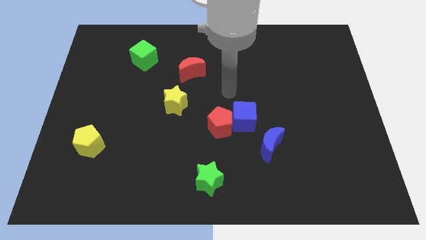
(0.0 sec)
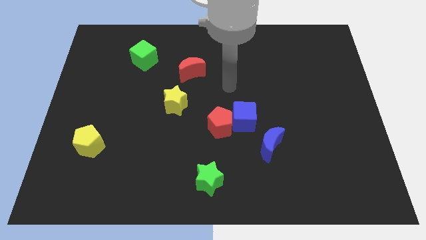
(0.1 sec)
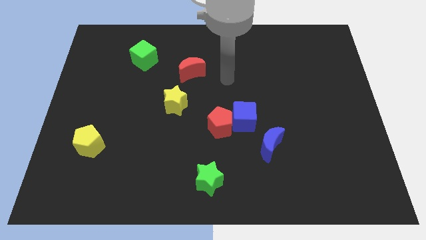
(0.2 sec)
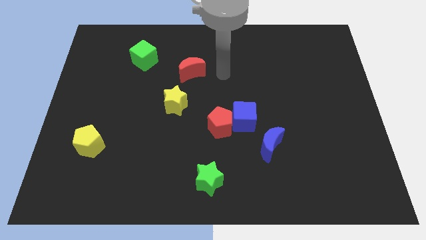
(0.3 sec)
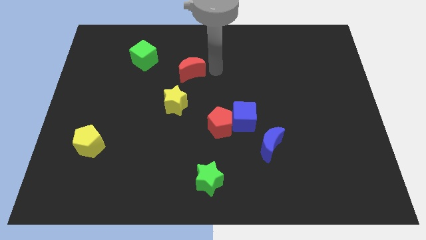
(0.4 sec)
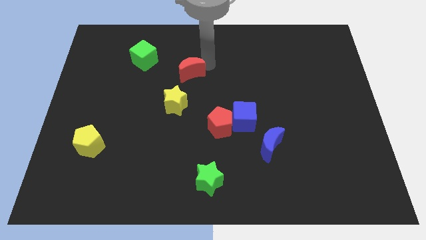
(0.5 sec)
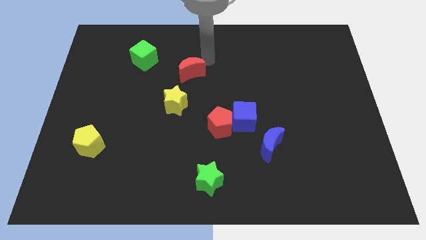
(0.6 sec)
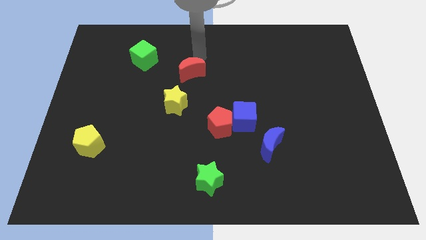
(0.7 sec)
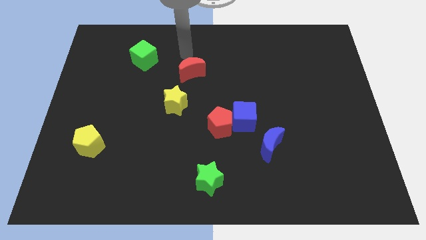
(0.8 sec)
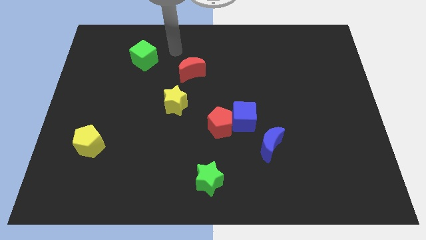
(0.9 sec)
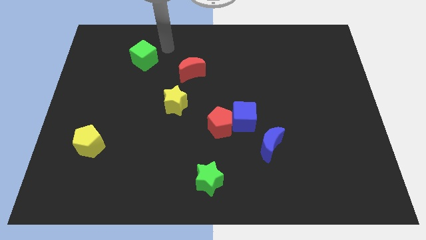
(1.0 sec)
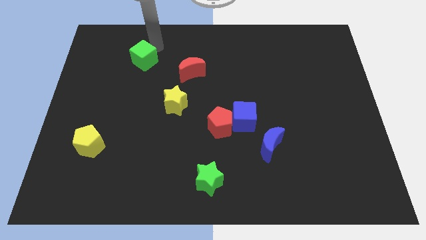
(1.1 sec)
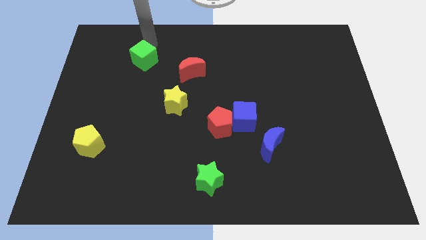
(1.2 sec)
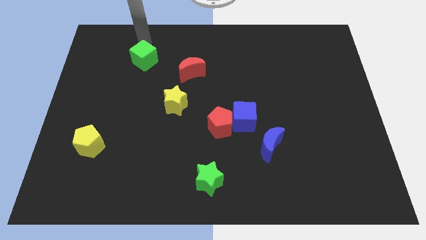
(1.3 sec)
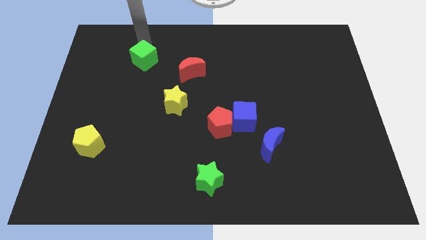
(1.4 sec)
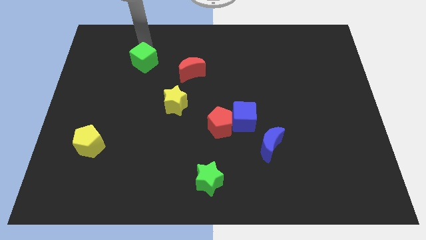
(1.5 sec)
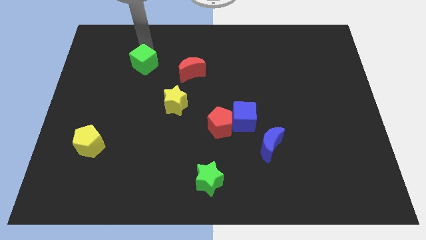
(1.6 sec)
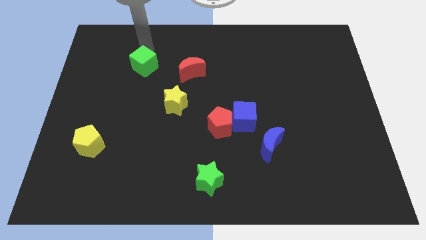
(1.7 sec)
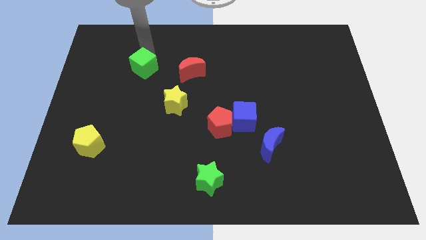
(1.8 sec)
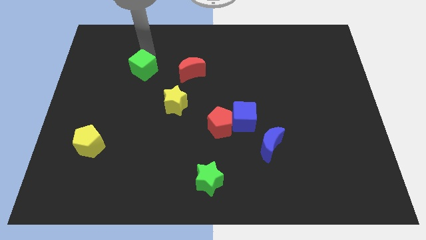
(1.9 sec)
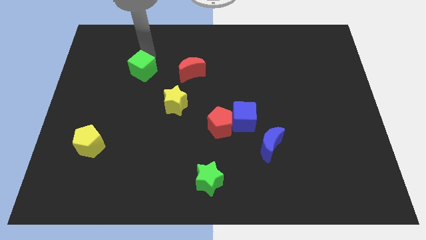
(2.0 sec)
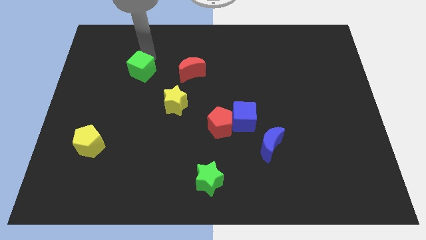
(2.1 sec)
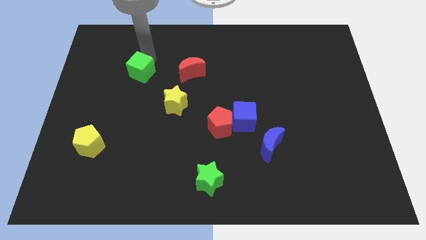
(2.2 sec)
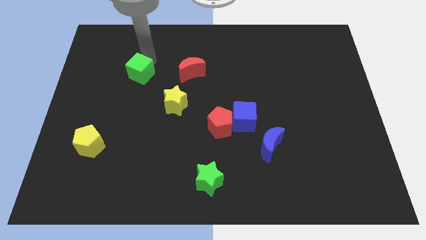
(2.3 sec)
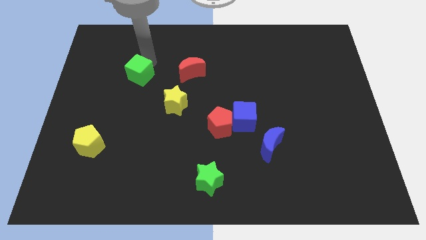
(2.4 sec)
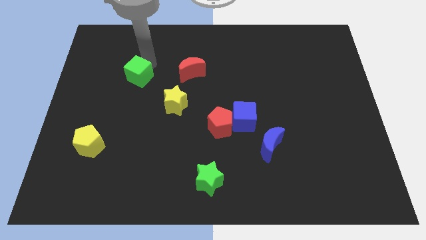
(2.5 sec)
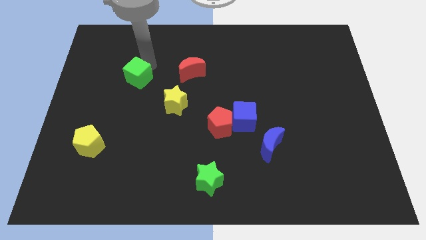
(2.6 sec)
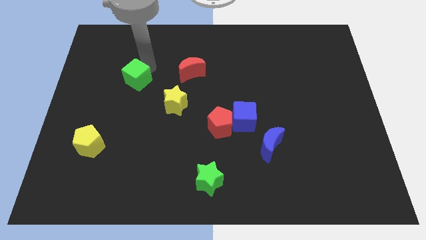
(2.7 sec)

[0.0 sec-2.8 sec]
slide the green cube downwards slightly

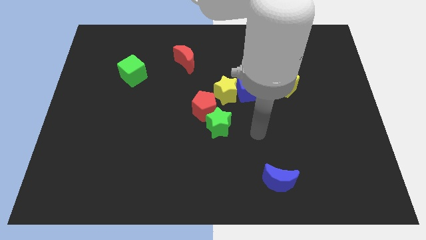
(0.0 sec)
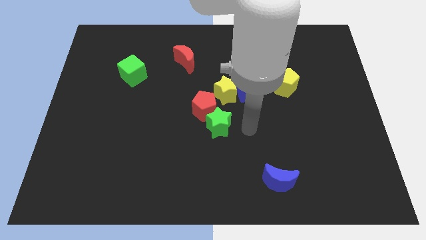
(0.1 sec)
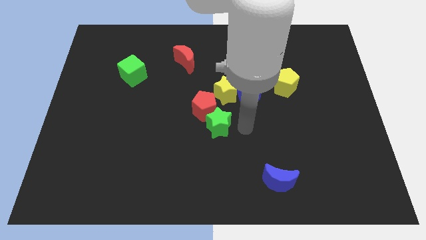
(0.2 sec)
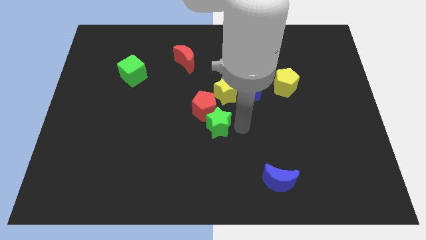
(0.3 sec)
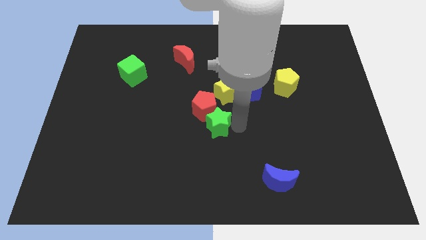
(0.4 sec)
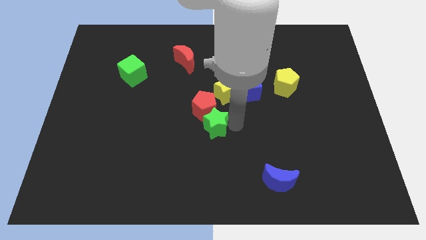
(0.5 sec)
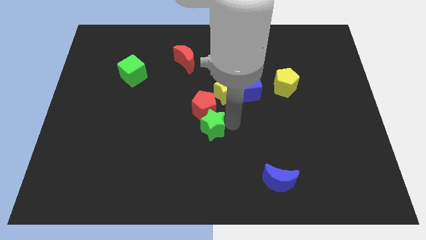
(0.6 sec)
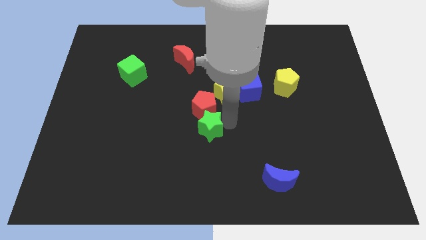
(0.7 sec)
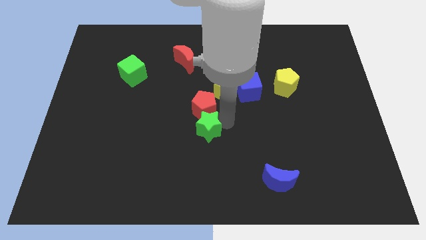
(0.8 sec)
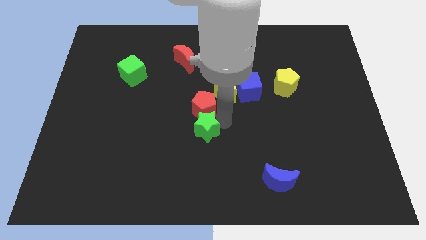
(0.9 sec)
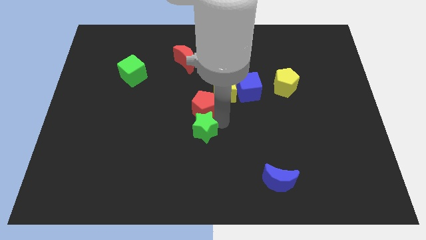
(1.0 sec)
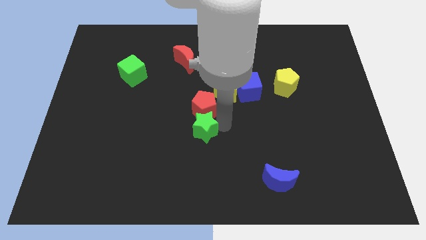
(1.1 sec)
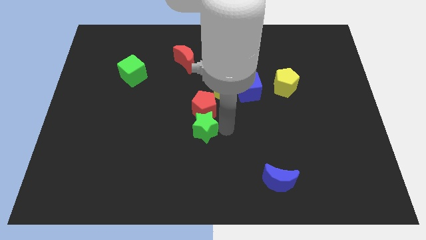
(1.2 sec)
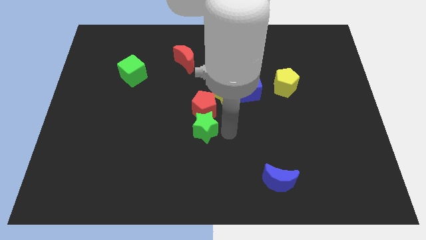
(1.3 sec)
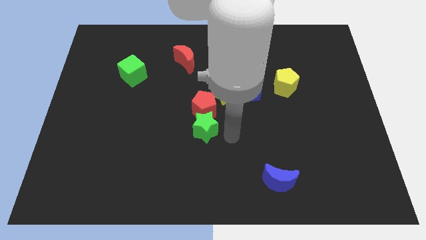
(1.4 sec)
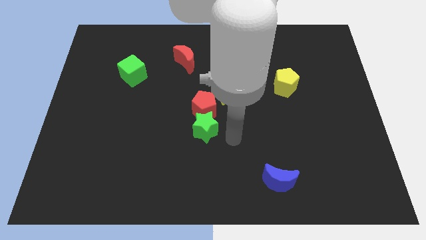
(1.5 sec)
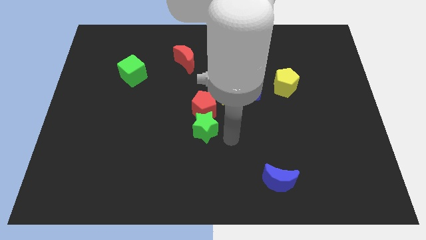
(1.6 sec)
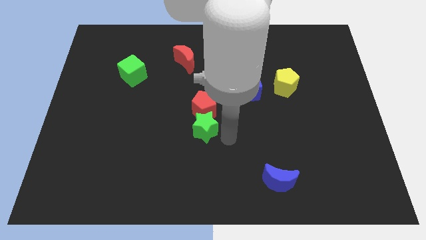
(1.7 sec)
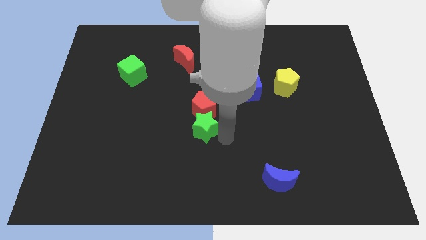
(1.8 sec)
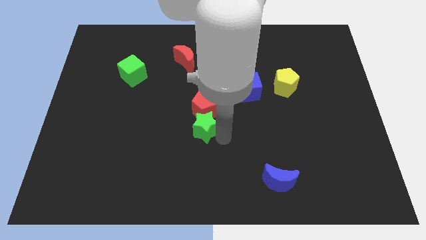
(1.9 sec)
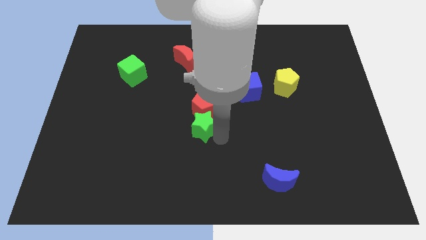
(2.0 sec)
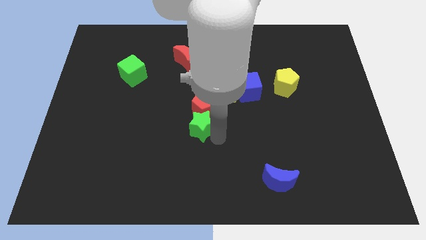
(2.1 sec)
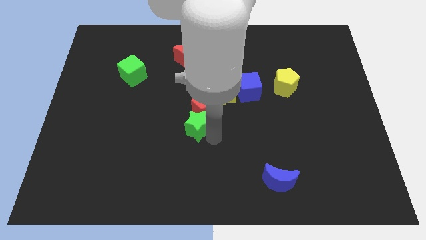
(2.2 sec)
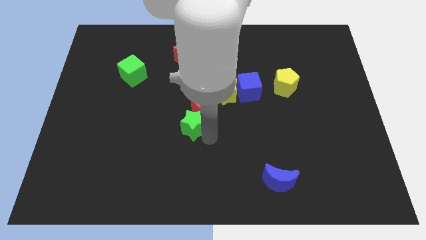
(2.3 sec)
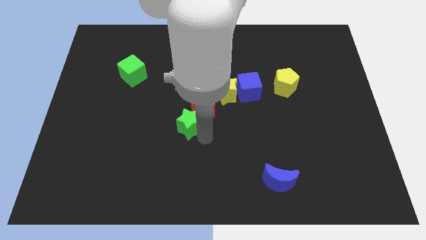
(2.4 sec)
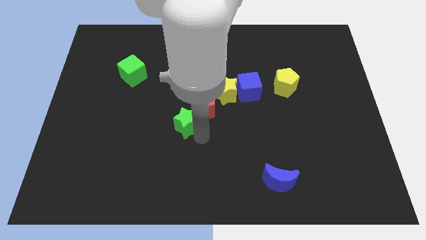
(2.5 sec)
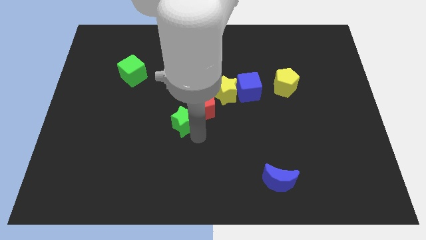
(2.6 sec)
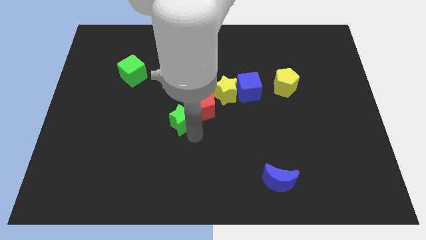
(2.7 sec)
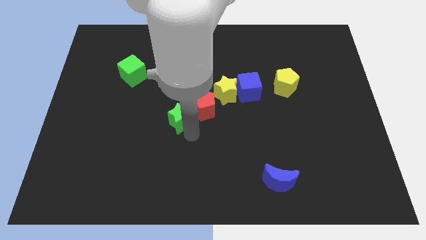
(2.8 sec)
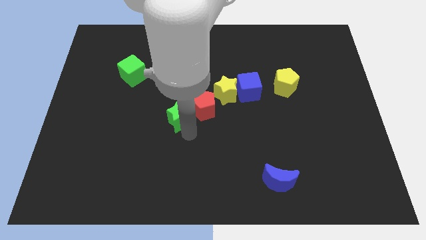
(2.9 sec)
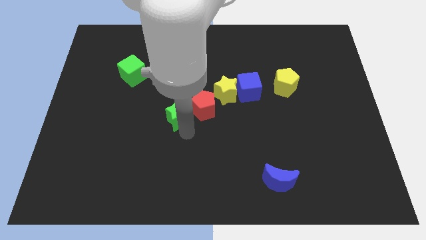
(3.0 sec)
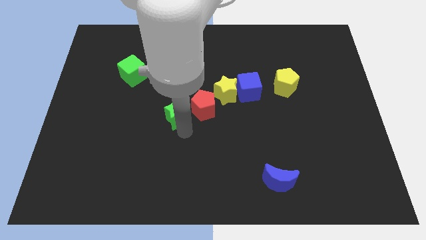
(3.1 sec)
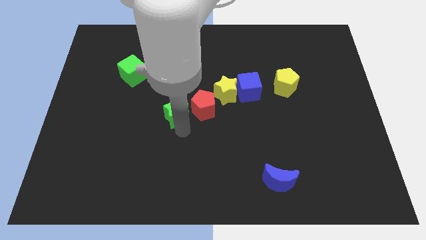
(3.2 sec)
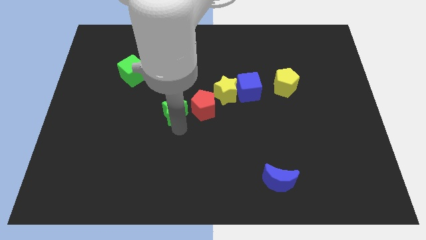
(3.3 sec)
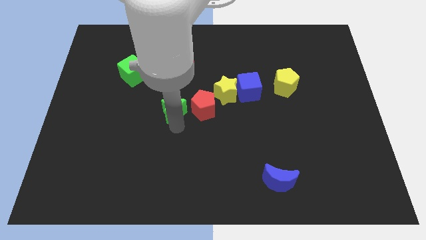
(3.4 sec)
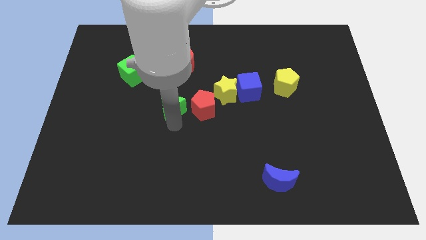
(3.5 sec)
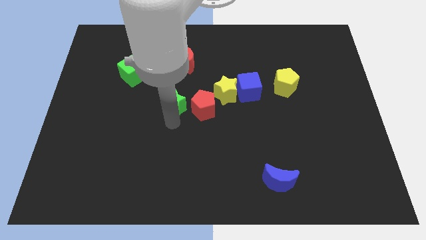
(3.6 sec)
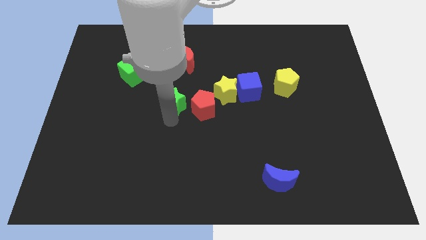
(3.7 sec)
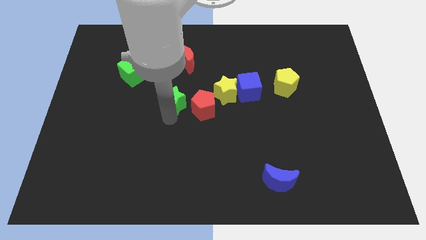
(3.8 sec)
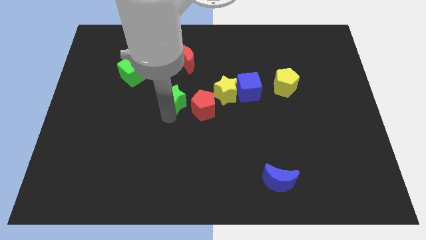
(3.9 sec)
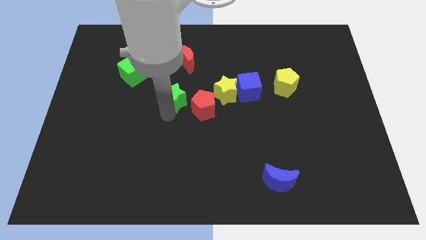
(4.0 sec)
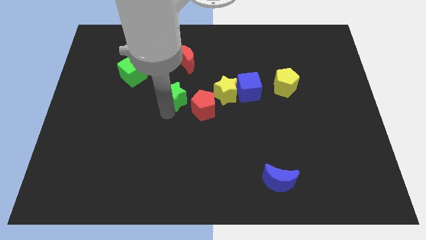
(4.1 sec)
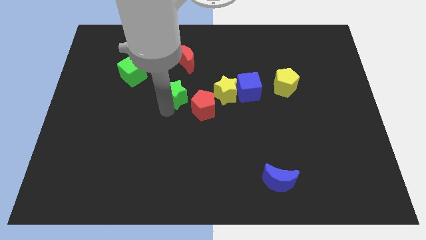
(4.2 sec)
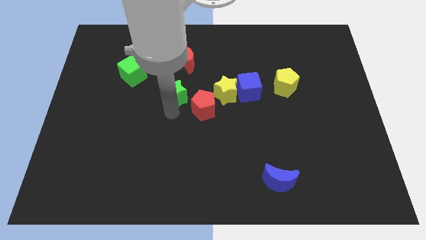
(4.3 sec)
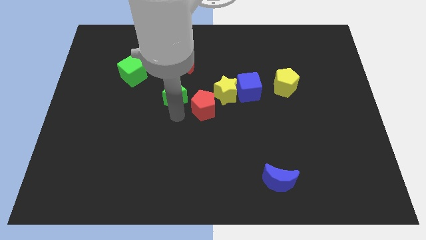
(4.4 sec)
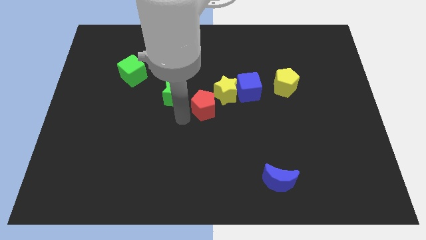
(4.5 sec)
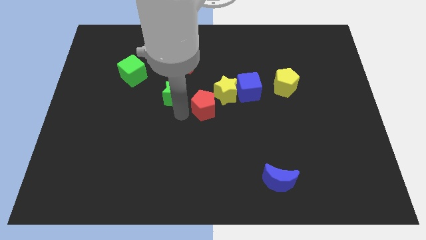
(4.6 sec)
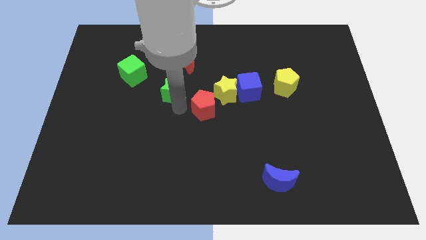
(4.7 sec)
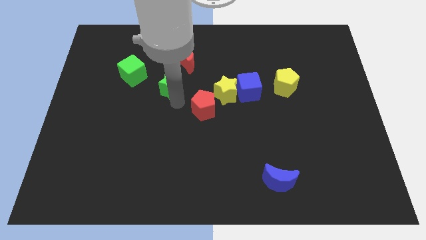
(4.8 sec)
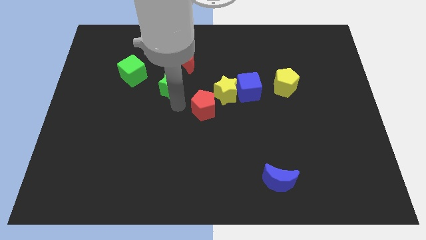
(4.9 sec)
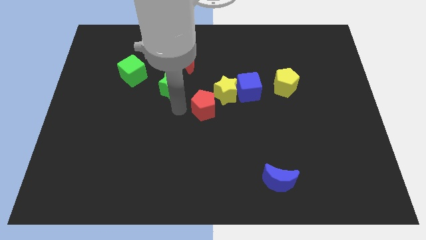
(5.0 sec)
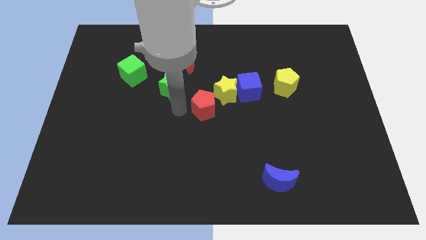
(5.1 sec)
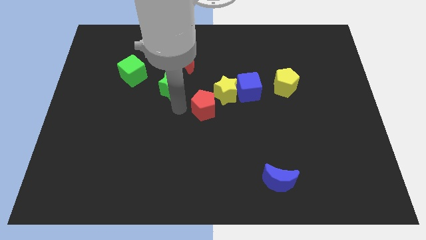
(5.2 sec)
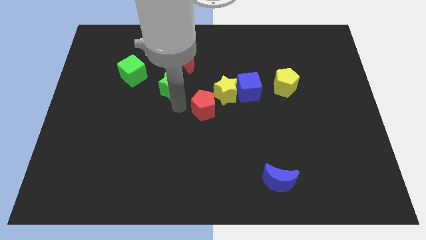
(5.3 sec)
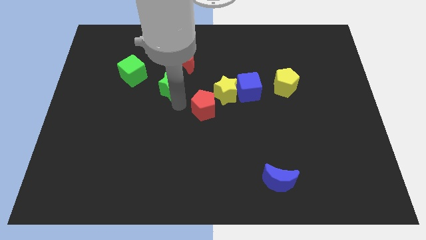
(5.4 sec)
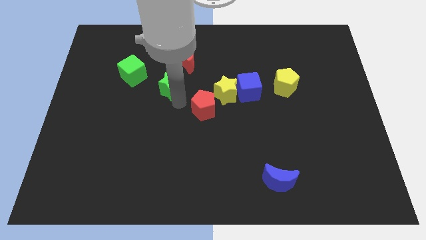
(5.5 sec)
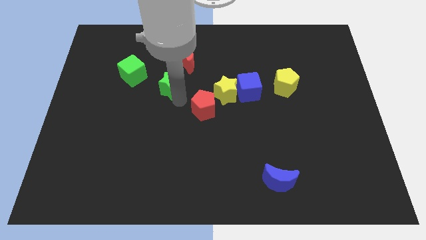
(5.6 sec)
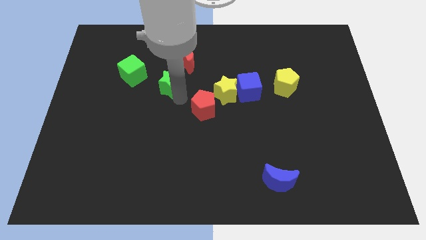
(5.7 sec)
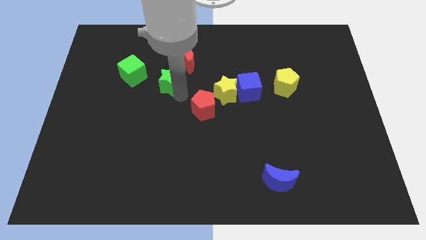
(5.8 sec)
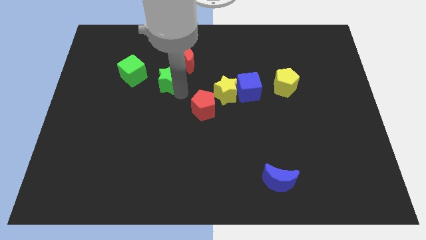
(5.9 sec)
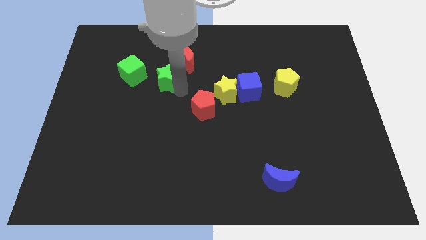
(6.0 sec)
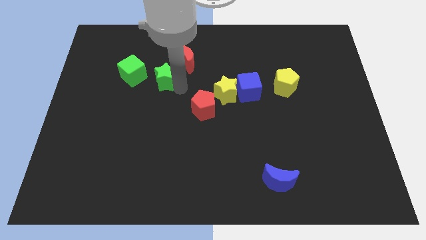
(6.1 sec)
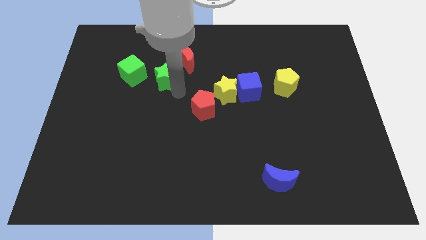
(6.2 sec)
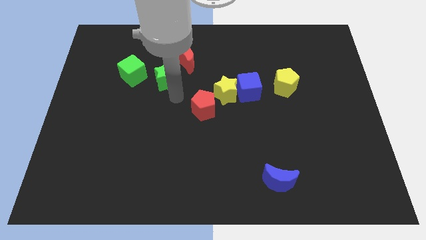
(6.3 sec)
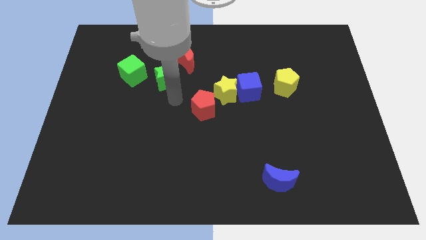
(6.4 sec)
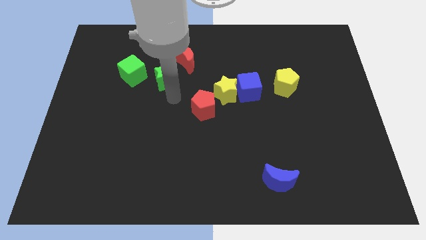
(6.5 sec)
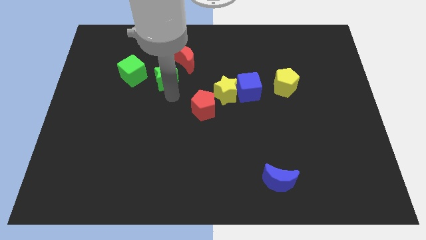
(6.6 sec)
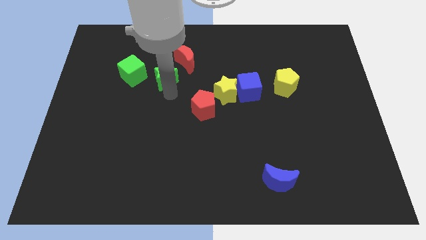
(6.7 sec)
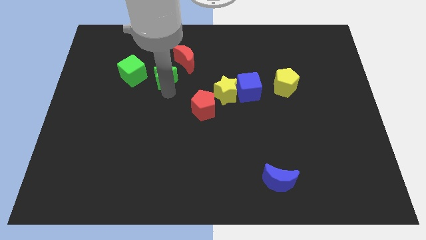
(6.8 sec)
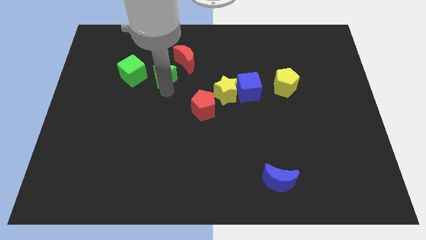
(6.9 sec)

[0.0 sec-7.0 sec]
move the green star diagonally upwards and left
